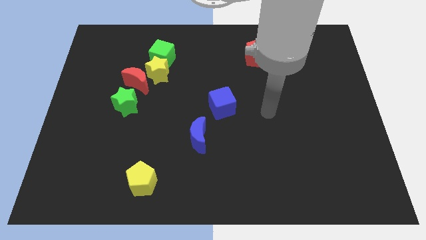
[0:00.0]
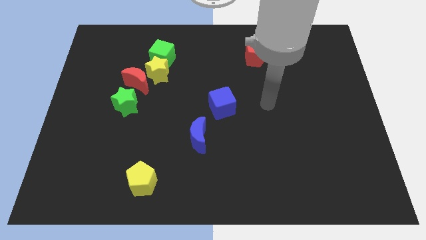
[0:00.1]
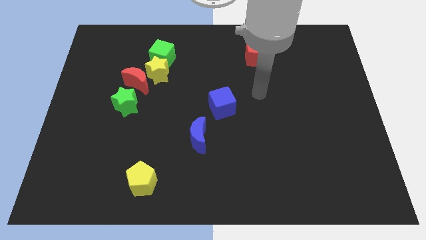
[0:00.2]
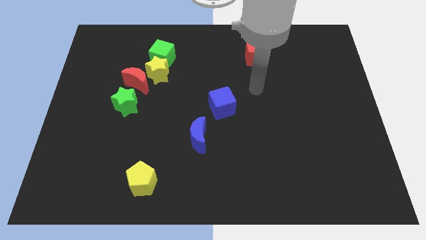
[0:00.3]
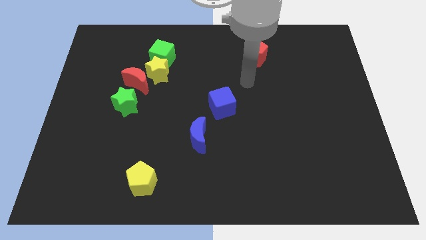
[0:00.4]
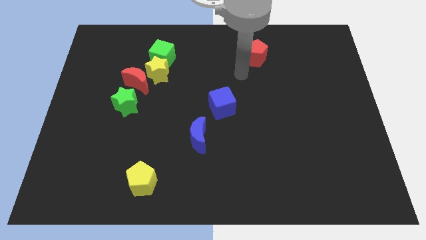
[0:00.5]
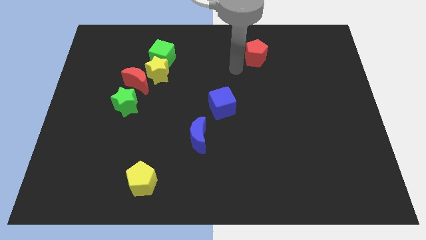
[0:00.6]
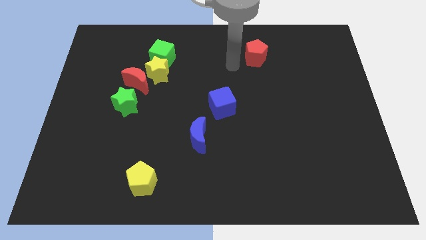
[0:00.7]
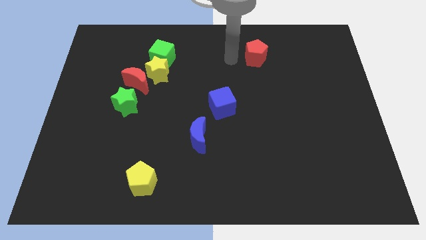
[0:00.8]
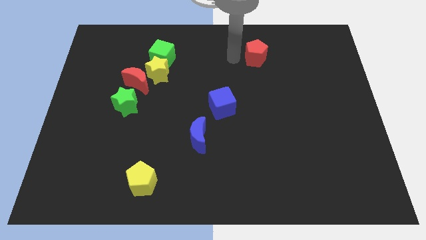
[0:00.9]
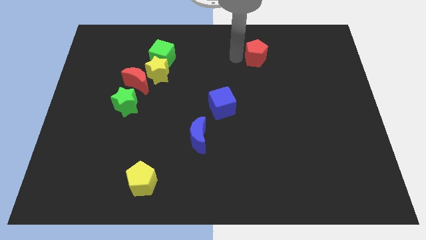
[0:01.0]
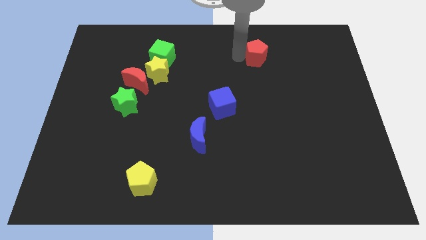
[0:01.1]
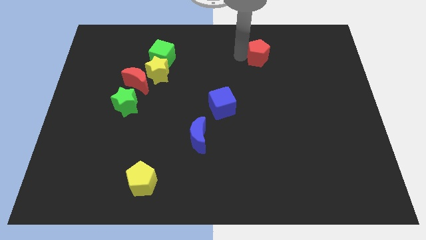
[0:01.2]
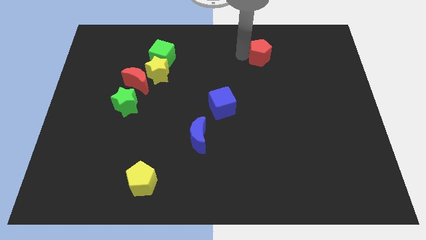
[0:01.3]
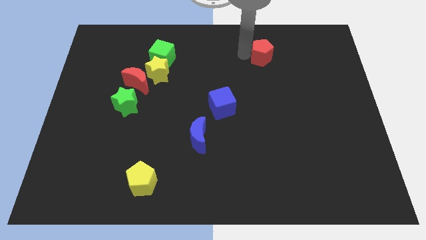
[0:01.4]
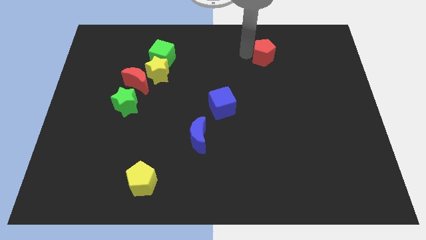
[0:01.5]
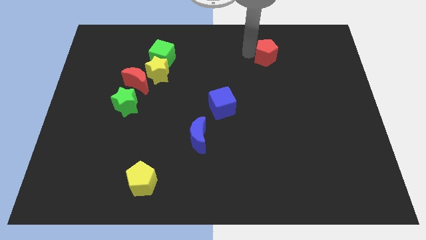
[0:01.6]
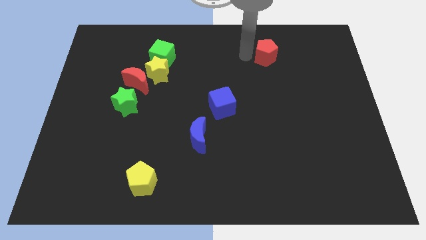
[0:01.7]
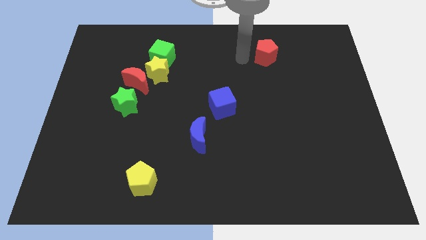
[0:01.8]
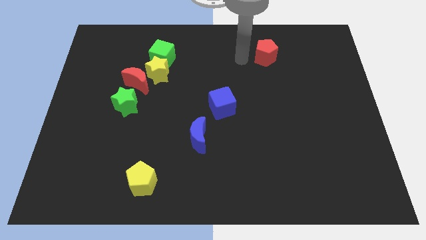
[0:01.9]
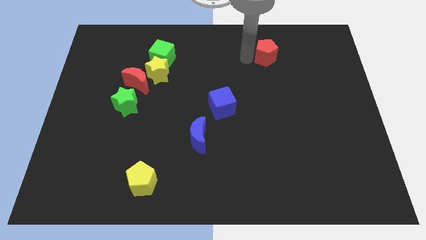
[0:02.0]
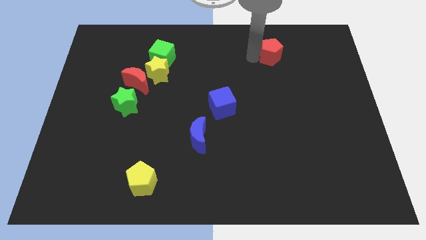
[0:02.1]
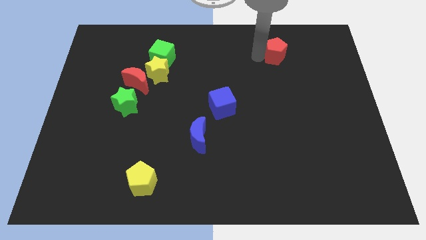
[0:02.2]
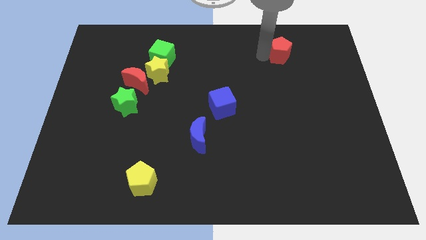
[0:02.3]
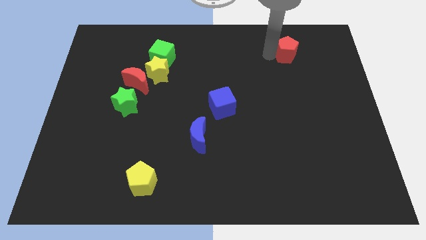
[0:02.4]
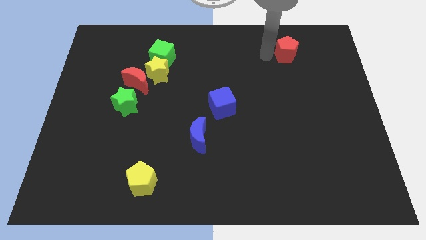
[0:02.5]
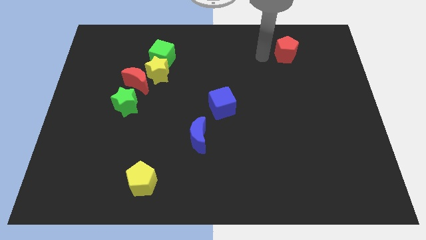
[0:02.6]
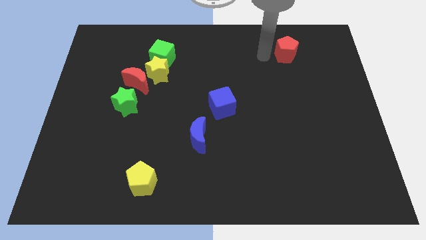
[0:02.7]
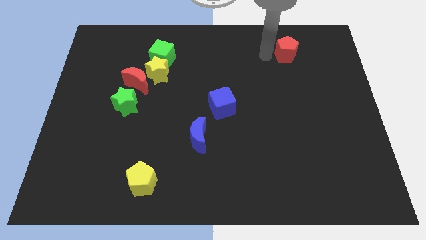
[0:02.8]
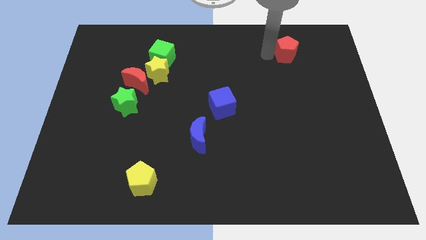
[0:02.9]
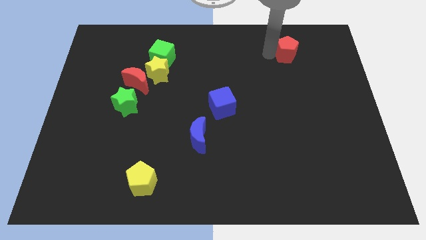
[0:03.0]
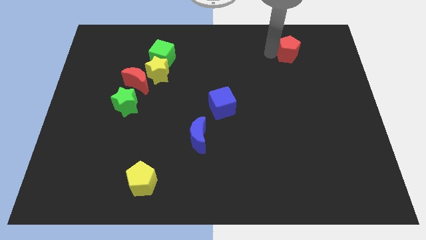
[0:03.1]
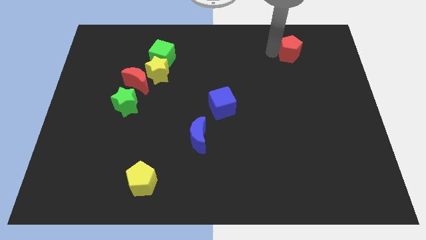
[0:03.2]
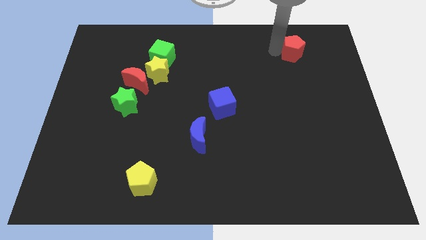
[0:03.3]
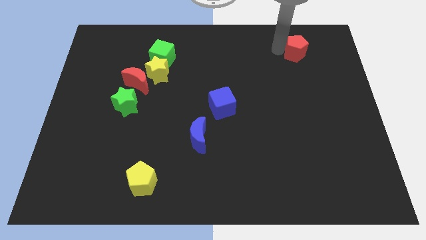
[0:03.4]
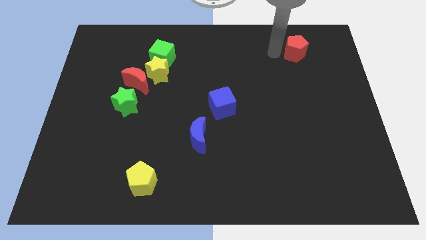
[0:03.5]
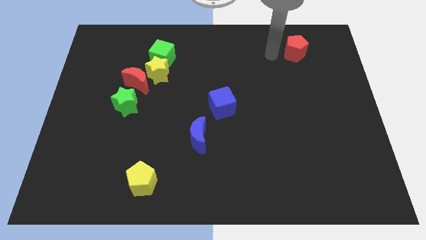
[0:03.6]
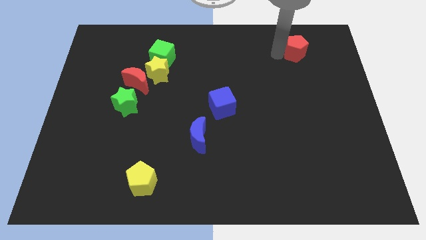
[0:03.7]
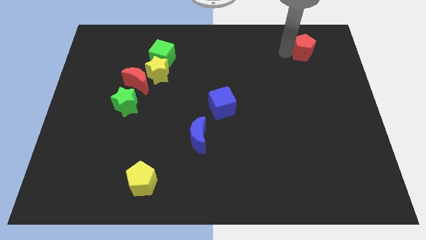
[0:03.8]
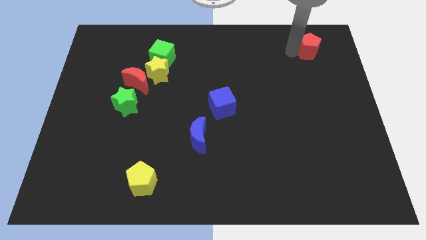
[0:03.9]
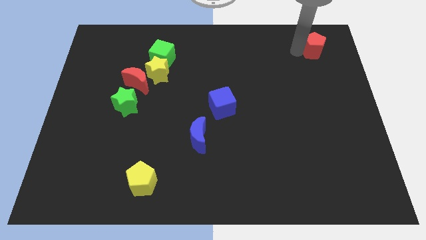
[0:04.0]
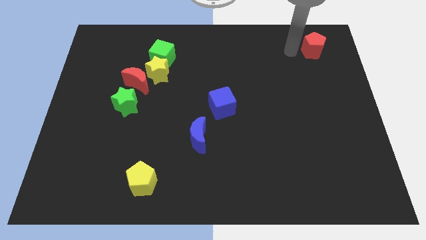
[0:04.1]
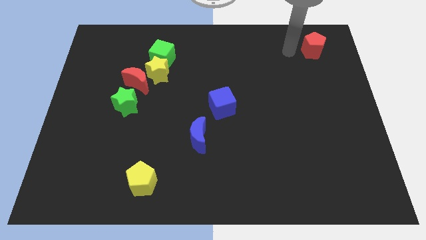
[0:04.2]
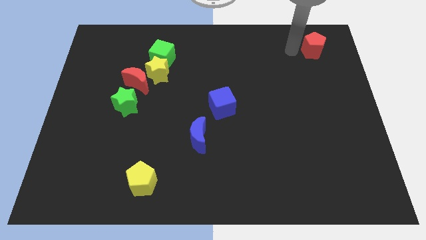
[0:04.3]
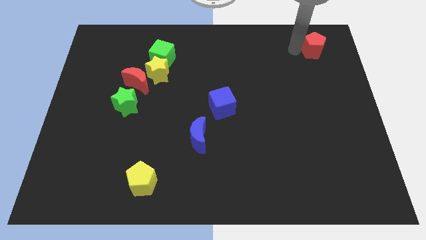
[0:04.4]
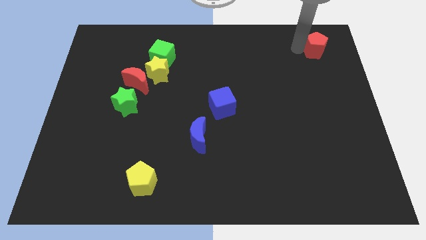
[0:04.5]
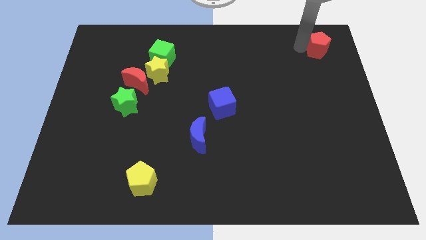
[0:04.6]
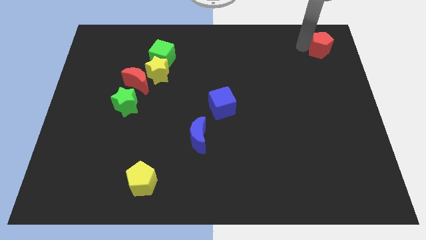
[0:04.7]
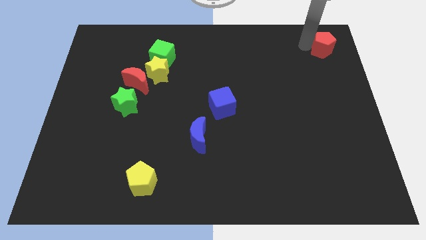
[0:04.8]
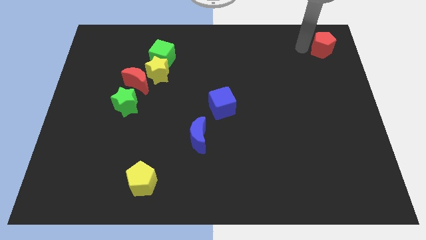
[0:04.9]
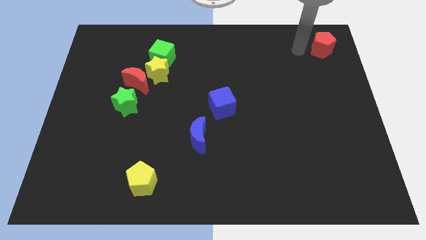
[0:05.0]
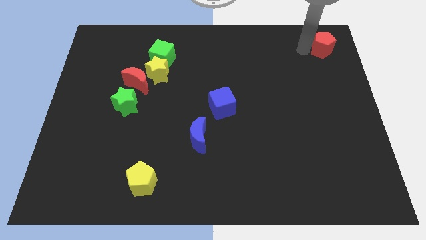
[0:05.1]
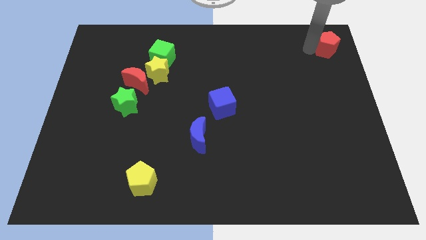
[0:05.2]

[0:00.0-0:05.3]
slide the red pentagon to the top right of the board
